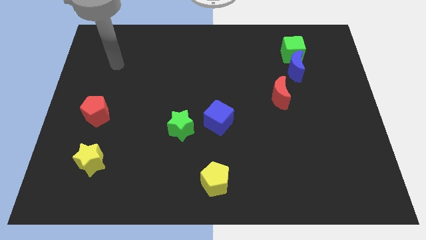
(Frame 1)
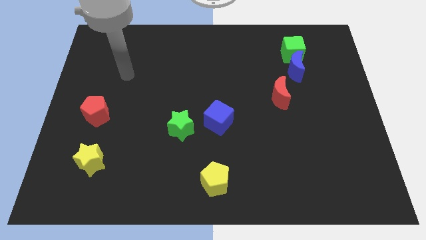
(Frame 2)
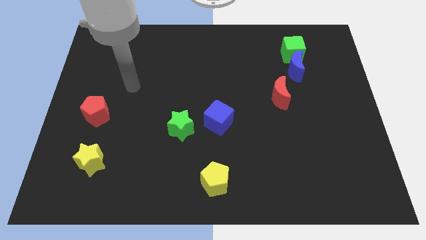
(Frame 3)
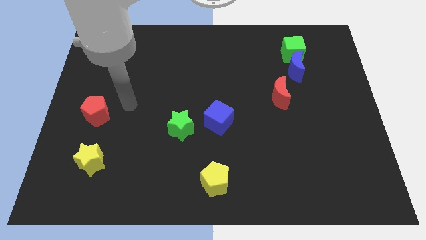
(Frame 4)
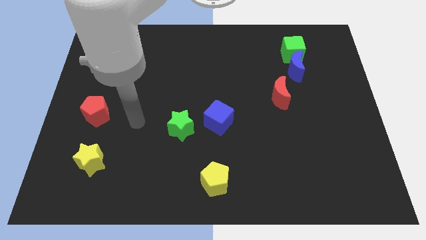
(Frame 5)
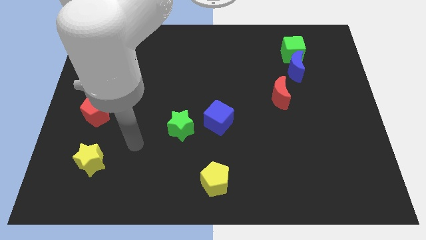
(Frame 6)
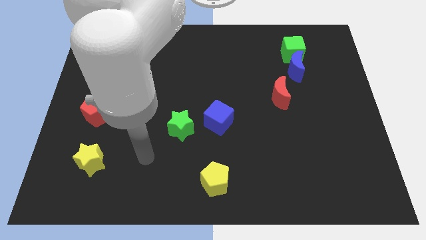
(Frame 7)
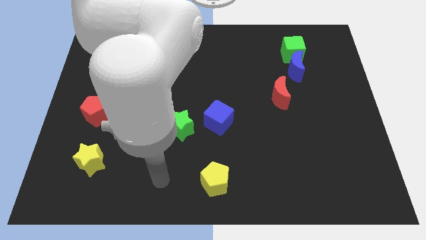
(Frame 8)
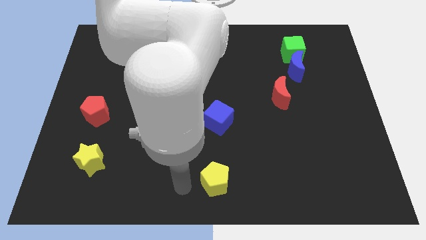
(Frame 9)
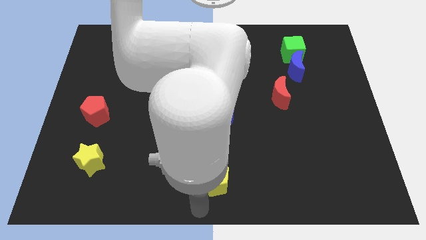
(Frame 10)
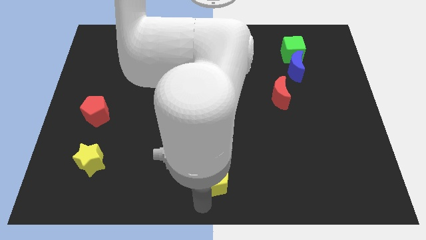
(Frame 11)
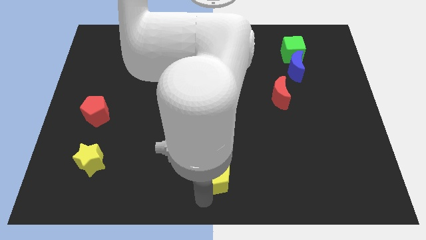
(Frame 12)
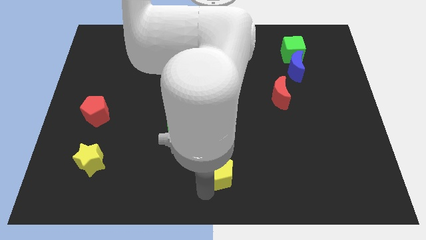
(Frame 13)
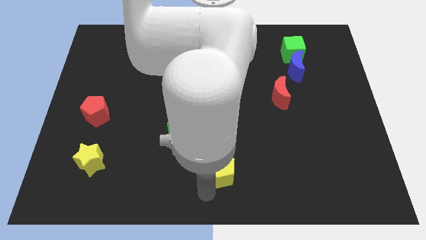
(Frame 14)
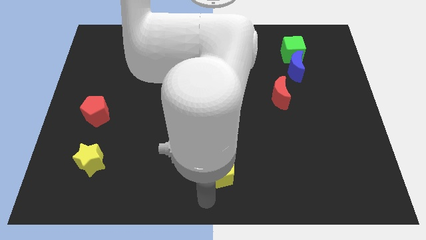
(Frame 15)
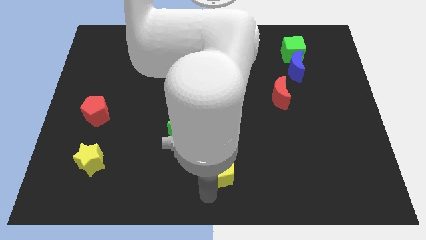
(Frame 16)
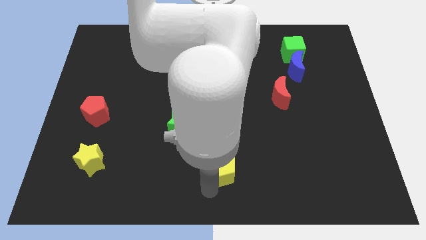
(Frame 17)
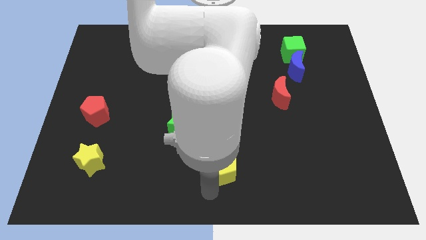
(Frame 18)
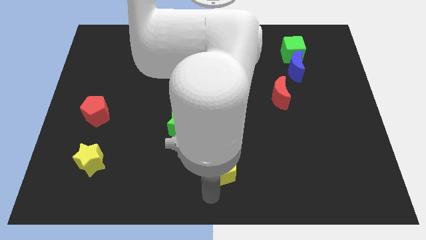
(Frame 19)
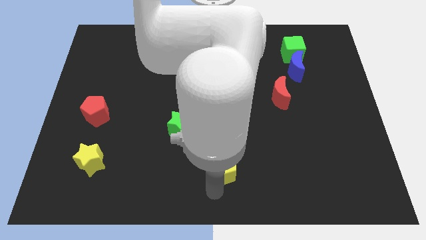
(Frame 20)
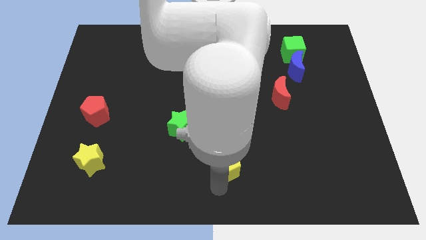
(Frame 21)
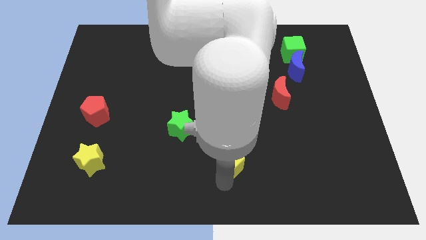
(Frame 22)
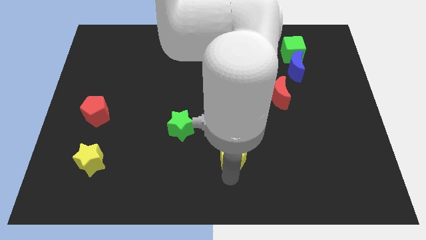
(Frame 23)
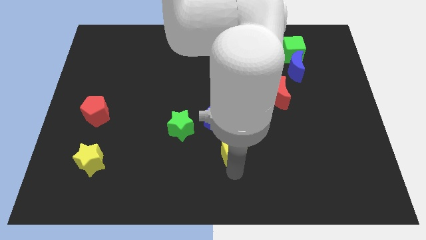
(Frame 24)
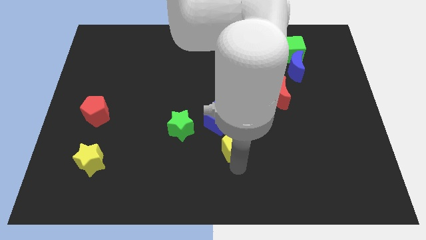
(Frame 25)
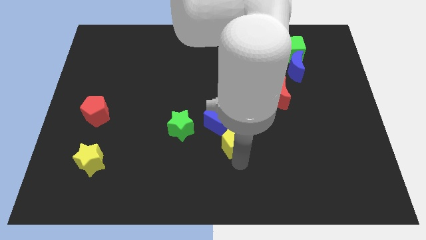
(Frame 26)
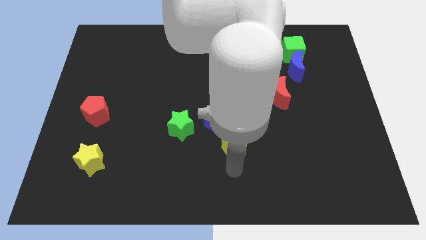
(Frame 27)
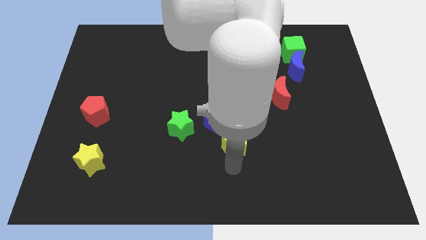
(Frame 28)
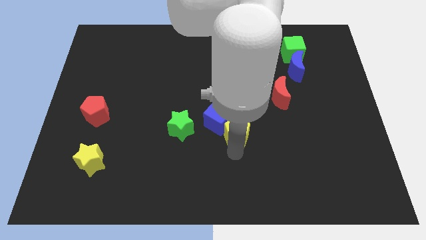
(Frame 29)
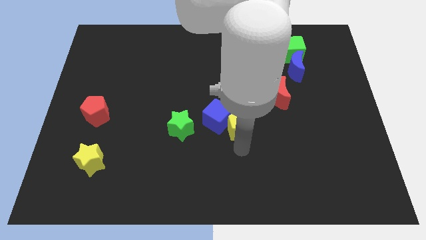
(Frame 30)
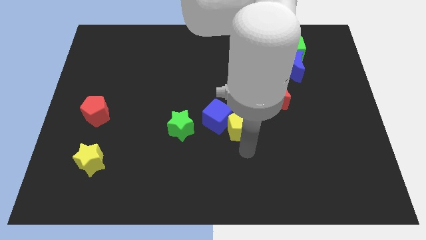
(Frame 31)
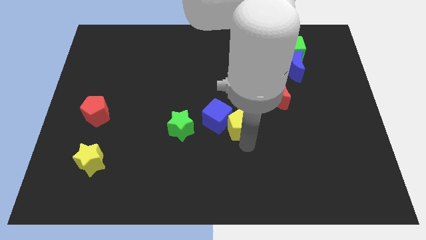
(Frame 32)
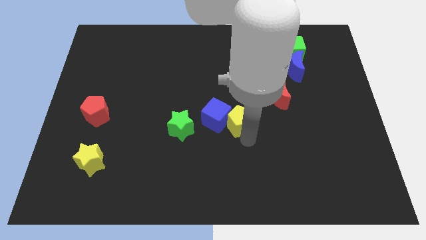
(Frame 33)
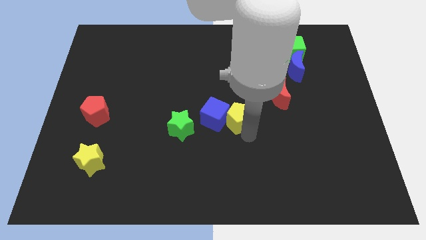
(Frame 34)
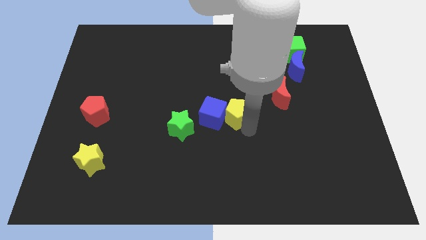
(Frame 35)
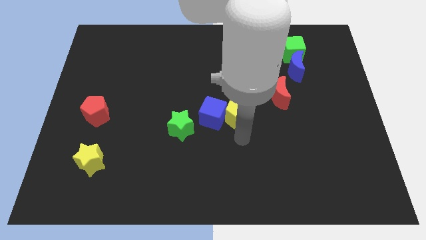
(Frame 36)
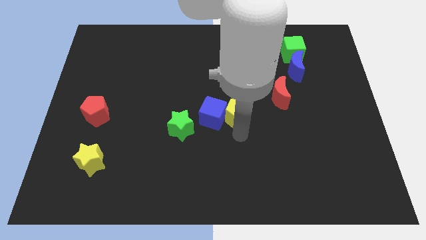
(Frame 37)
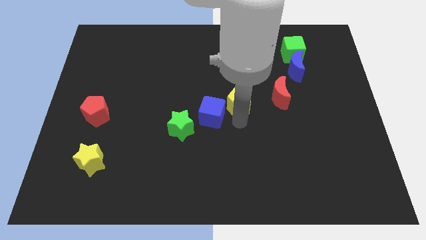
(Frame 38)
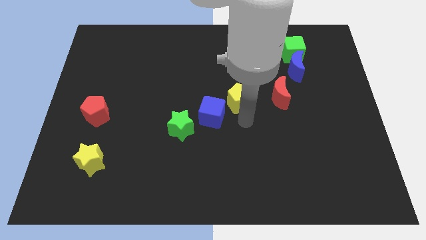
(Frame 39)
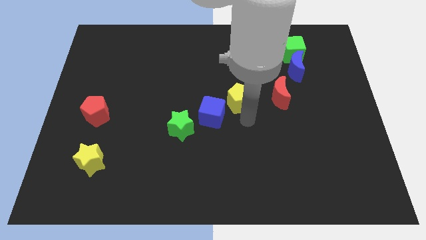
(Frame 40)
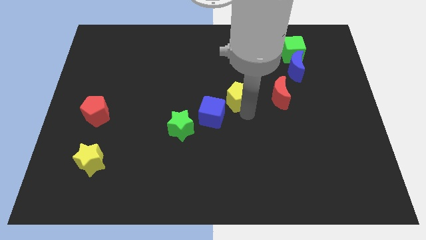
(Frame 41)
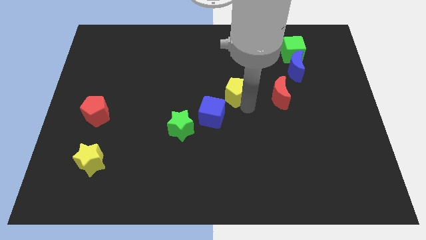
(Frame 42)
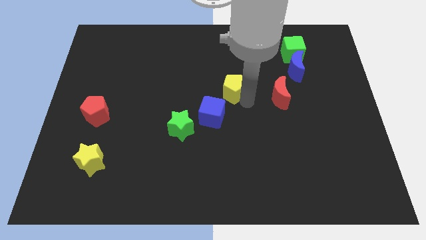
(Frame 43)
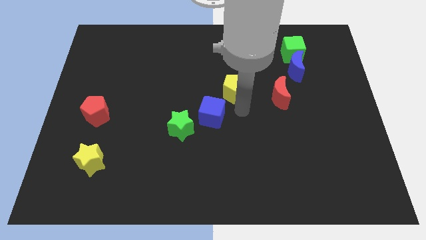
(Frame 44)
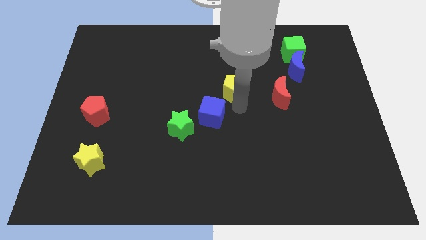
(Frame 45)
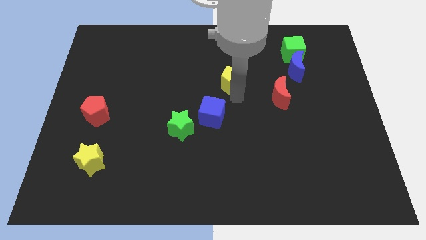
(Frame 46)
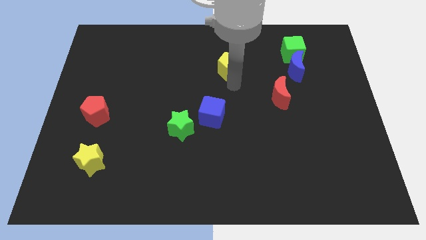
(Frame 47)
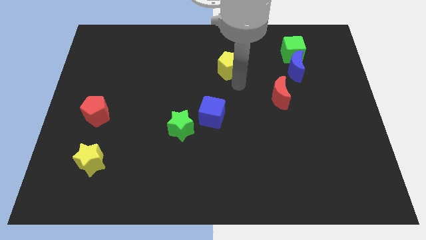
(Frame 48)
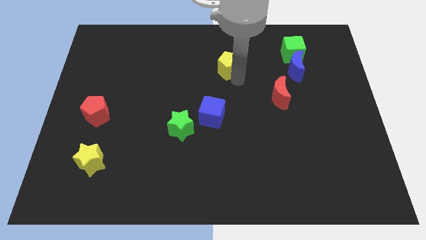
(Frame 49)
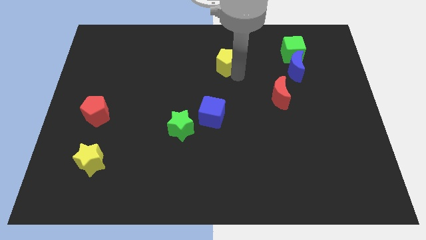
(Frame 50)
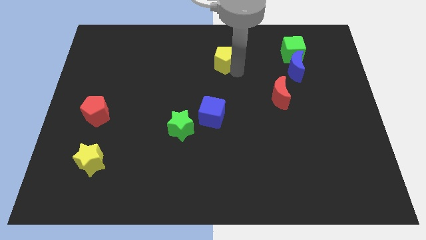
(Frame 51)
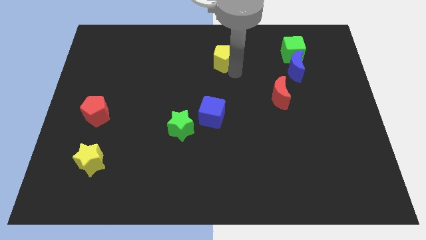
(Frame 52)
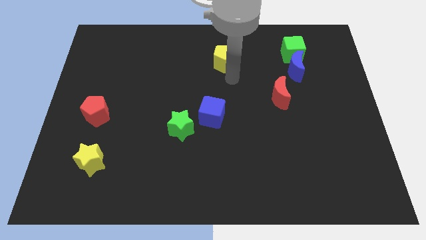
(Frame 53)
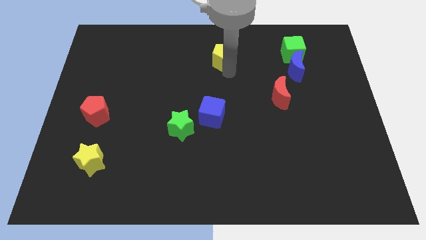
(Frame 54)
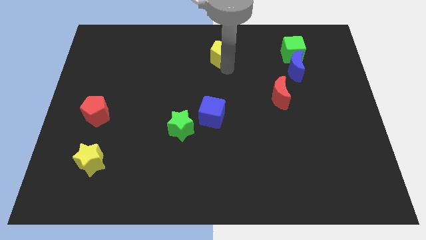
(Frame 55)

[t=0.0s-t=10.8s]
put the yellow pentagon to the top

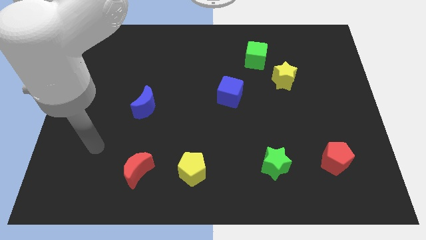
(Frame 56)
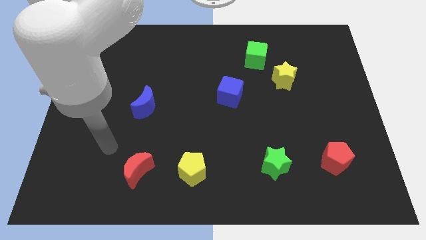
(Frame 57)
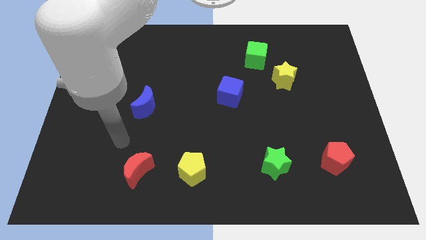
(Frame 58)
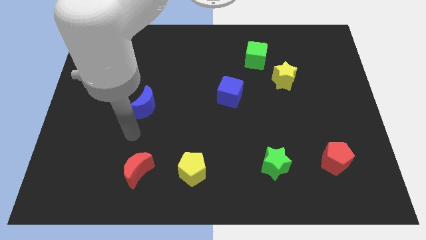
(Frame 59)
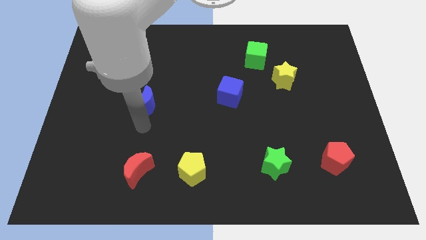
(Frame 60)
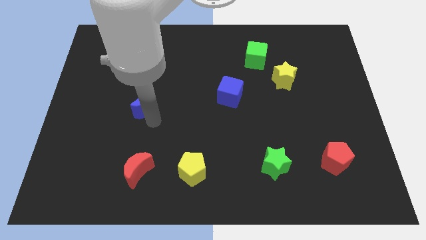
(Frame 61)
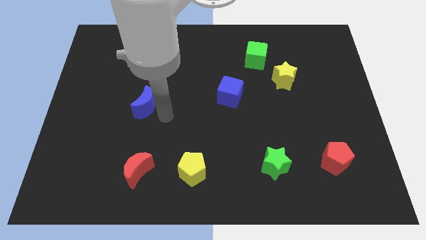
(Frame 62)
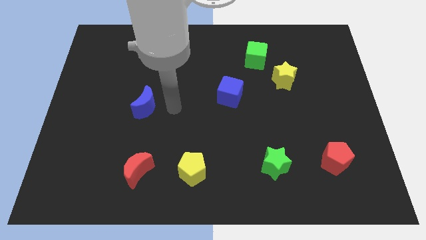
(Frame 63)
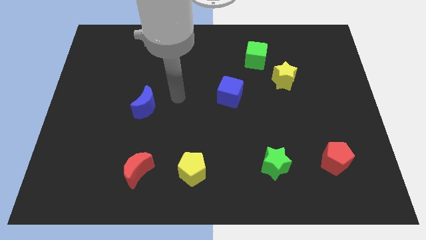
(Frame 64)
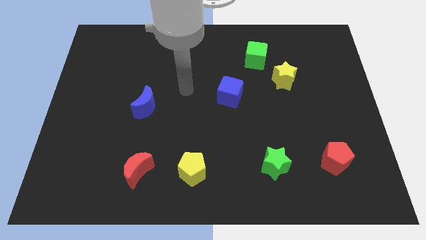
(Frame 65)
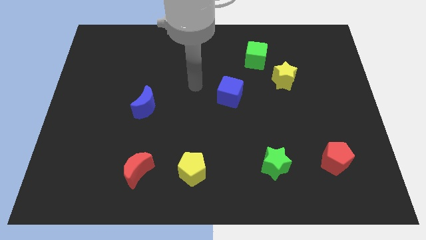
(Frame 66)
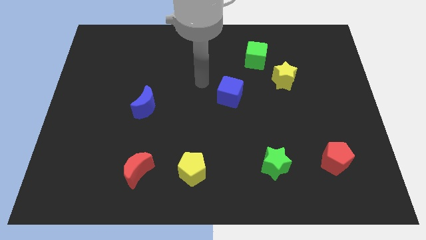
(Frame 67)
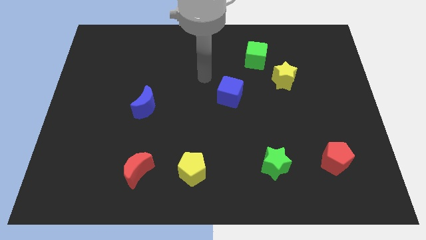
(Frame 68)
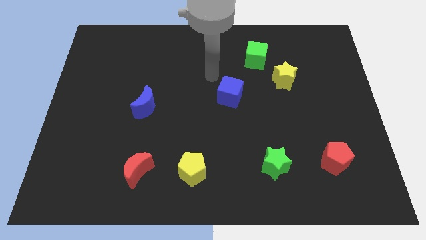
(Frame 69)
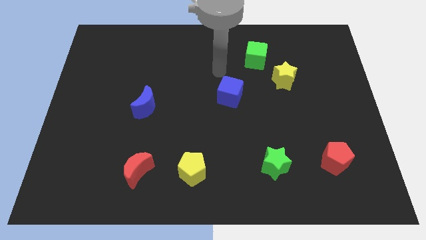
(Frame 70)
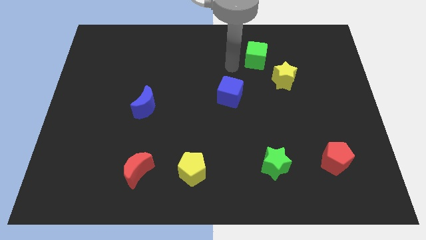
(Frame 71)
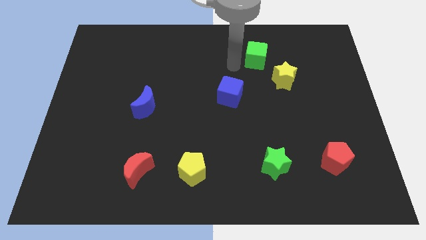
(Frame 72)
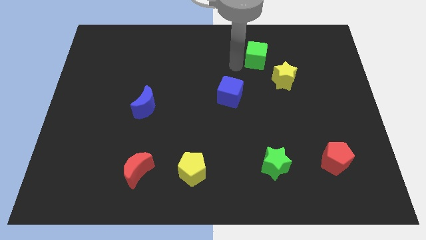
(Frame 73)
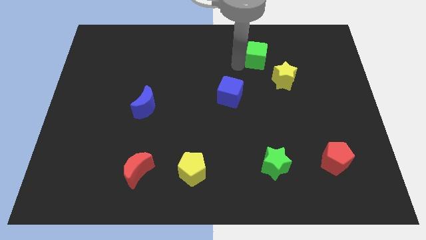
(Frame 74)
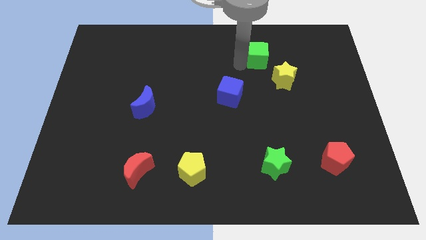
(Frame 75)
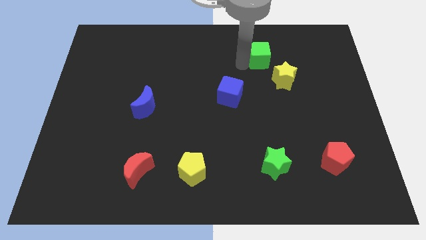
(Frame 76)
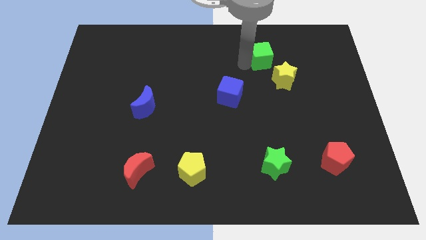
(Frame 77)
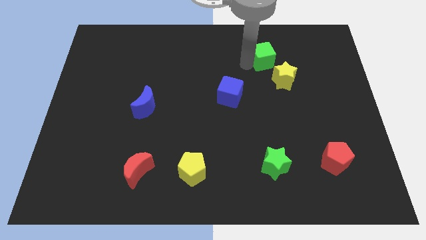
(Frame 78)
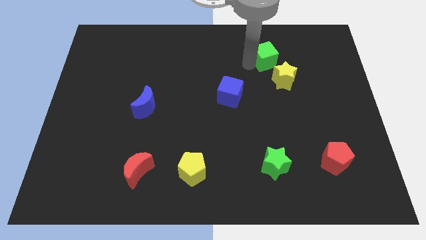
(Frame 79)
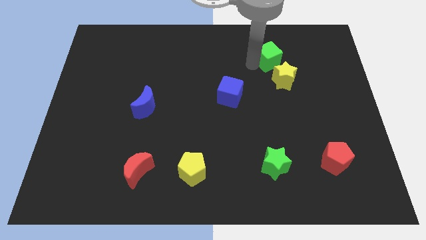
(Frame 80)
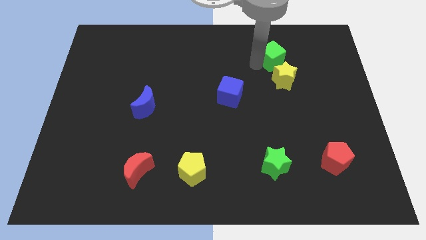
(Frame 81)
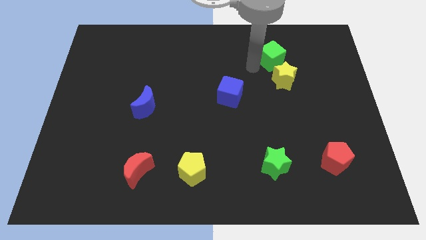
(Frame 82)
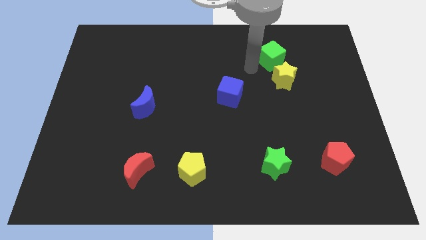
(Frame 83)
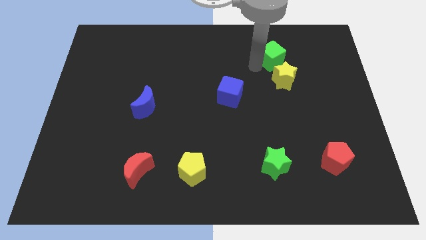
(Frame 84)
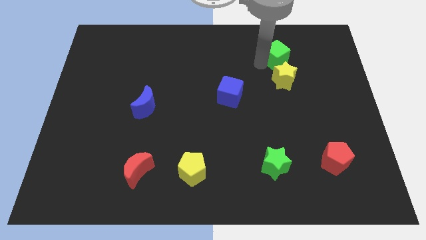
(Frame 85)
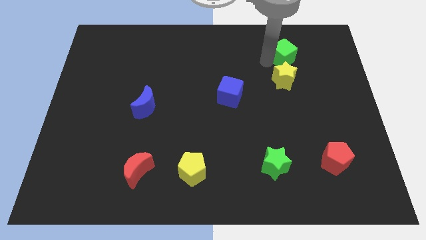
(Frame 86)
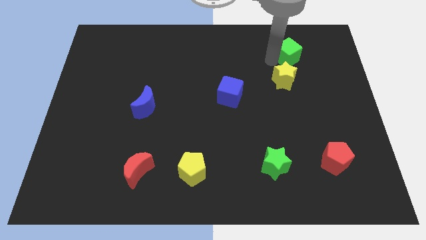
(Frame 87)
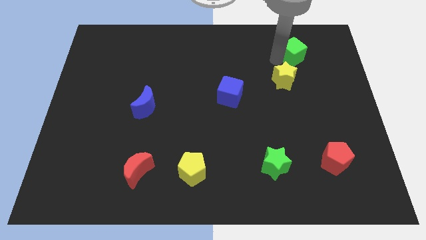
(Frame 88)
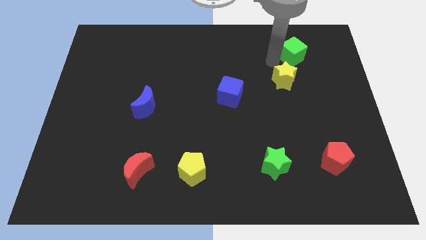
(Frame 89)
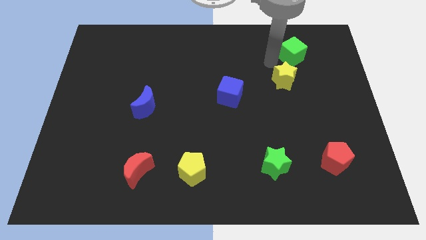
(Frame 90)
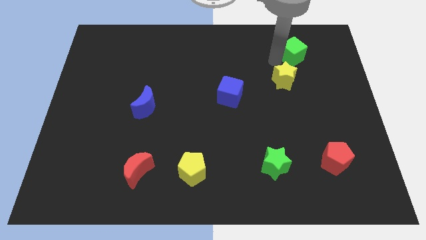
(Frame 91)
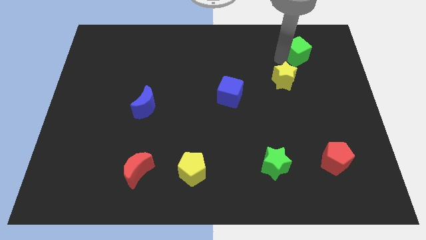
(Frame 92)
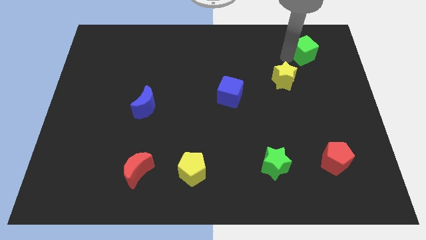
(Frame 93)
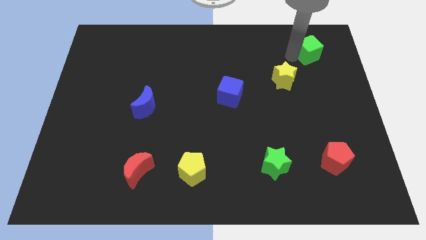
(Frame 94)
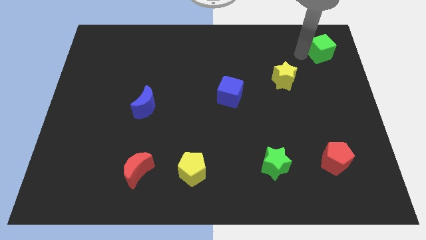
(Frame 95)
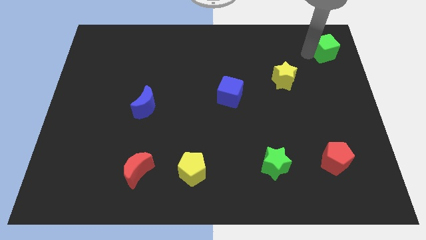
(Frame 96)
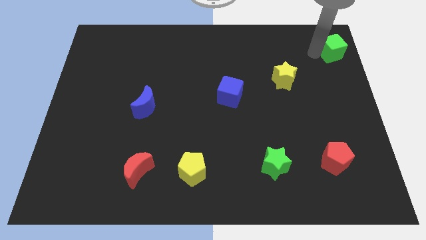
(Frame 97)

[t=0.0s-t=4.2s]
move the green cube to the top right
